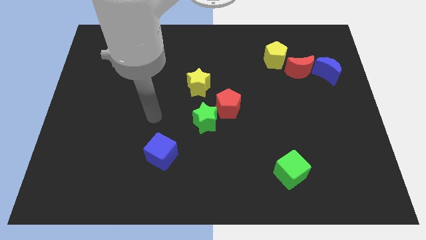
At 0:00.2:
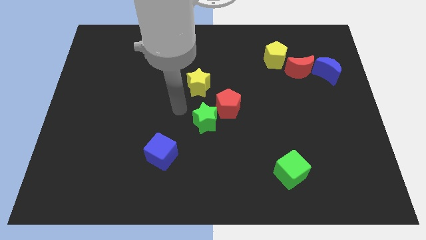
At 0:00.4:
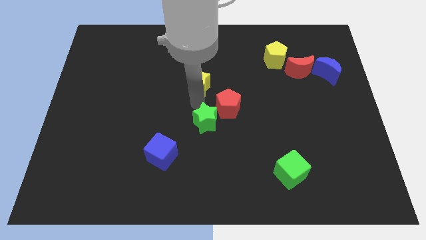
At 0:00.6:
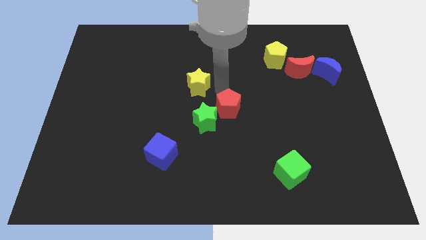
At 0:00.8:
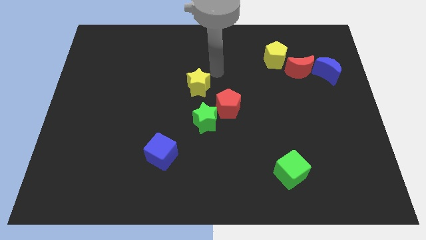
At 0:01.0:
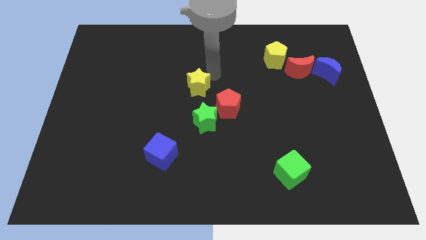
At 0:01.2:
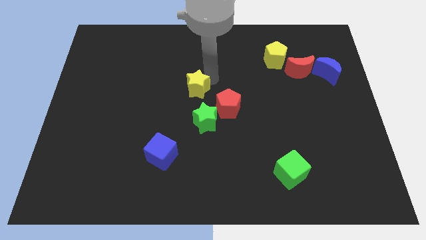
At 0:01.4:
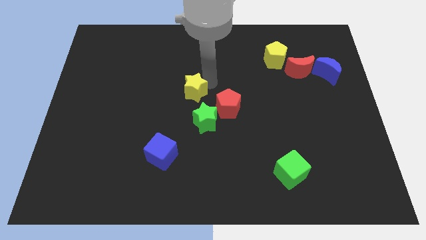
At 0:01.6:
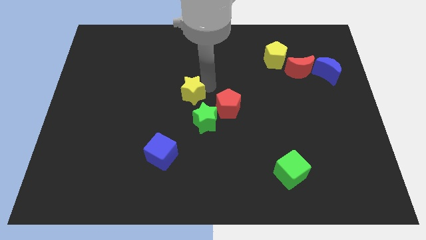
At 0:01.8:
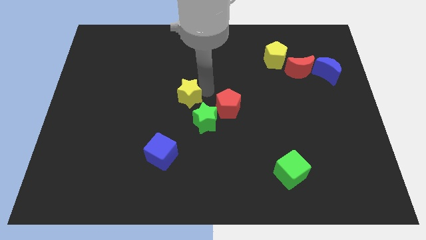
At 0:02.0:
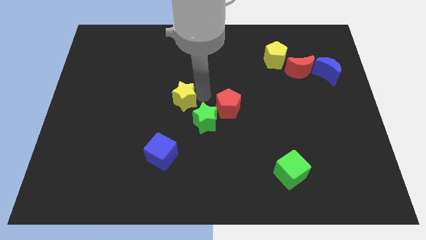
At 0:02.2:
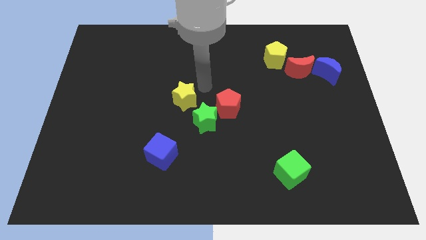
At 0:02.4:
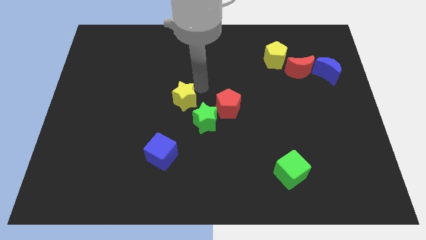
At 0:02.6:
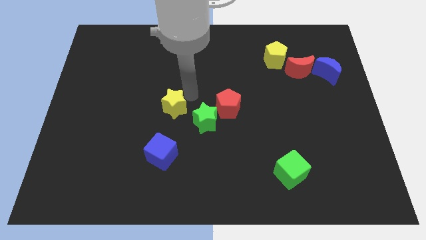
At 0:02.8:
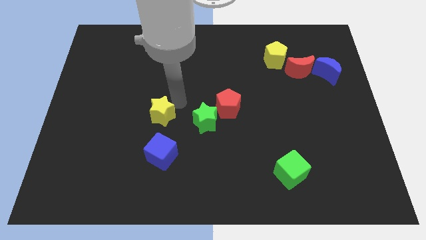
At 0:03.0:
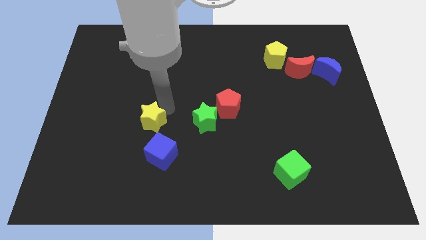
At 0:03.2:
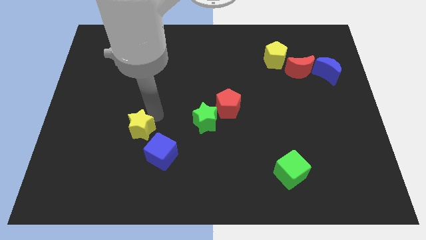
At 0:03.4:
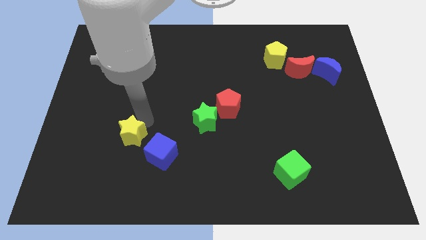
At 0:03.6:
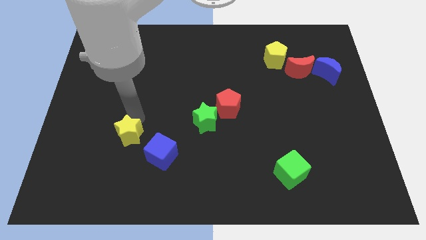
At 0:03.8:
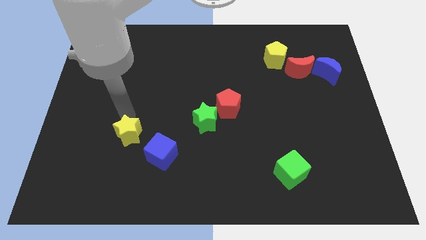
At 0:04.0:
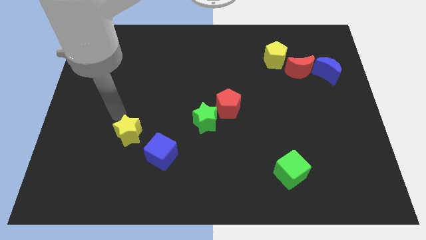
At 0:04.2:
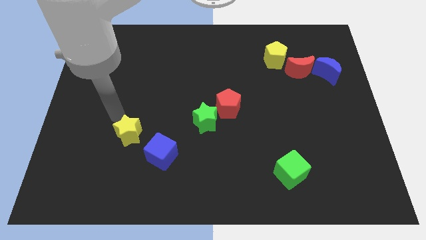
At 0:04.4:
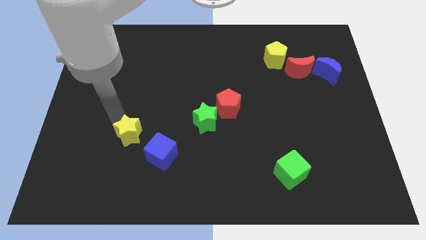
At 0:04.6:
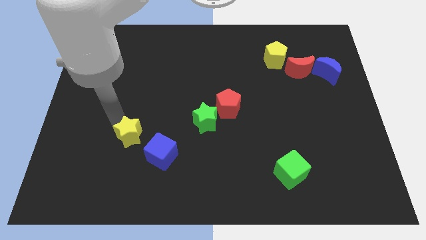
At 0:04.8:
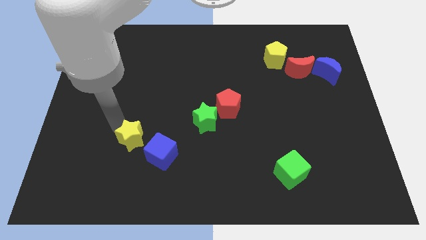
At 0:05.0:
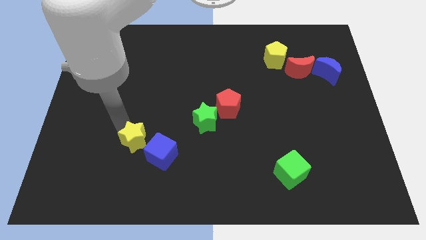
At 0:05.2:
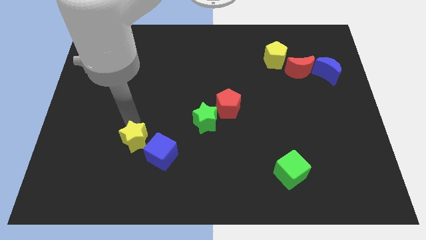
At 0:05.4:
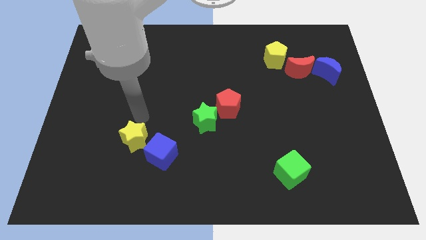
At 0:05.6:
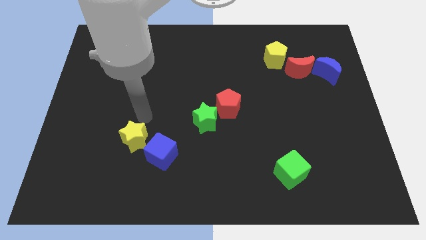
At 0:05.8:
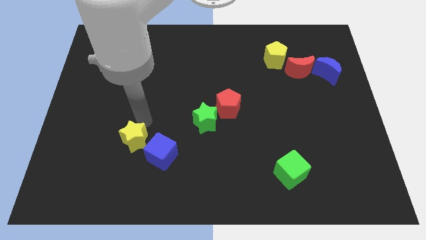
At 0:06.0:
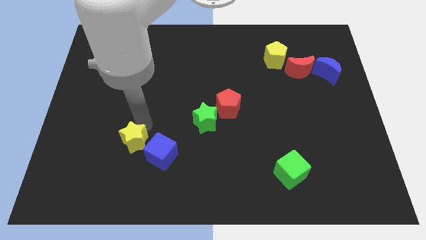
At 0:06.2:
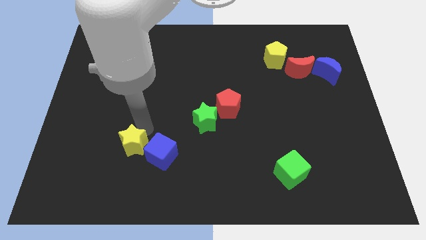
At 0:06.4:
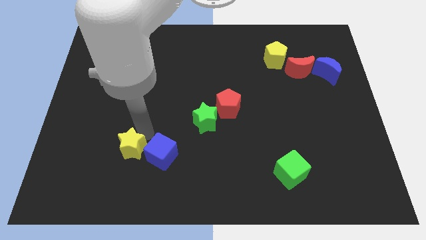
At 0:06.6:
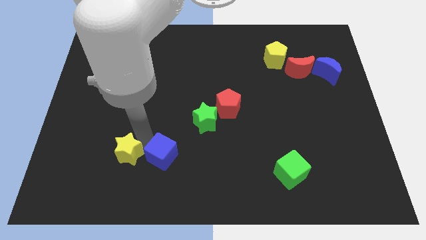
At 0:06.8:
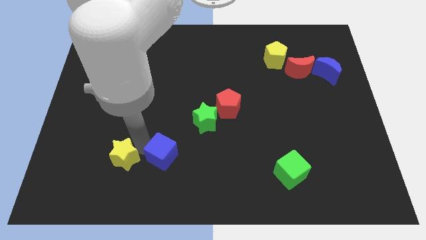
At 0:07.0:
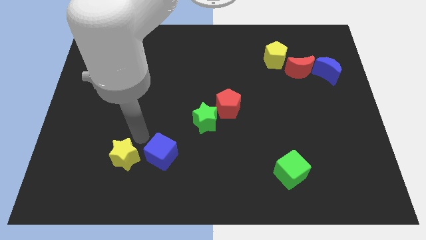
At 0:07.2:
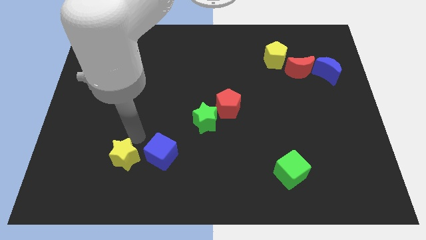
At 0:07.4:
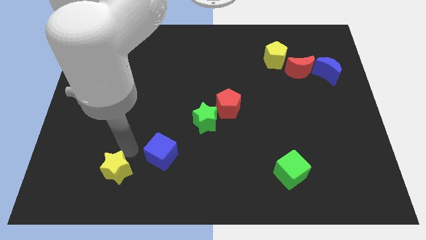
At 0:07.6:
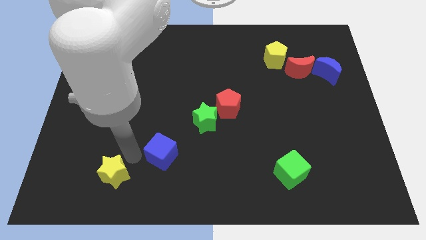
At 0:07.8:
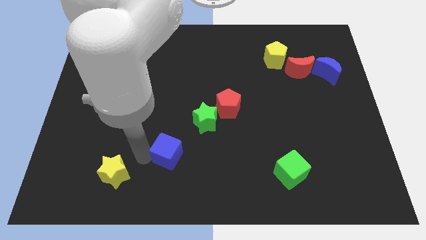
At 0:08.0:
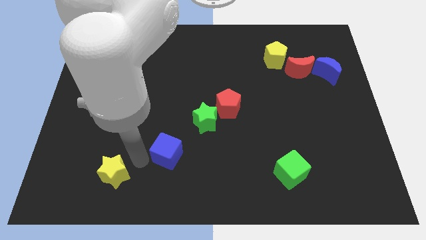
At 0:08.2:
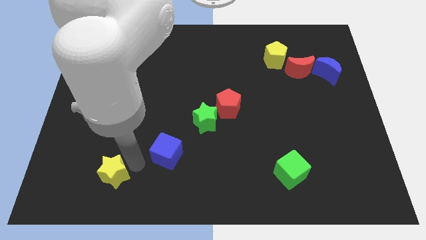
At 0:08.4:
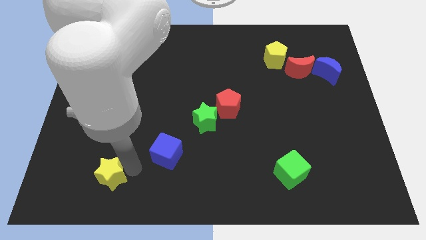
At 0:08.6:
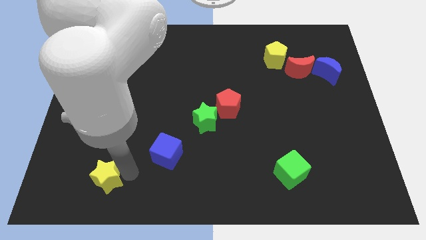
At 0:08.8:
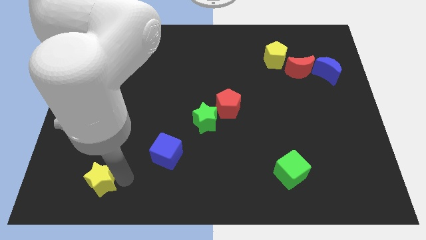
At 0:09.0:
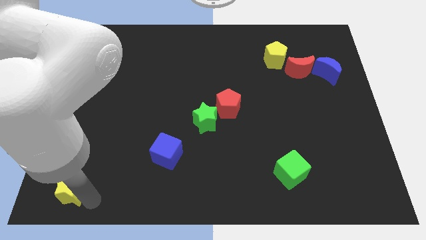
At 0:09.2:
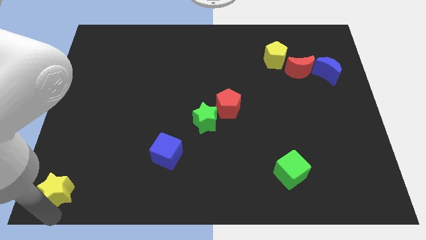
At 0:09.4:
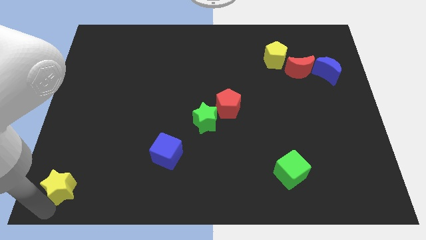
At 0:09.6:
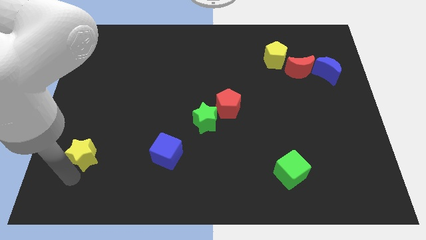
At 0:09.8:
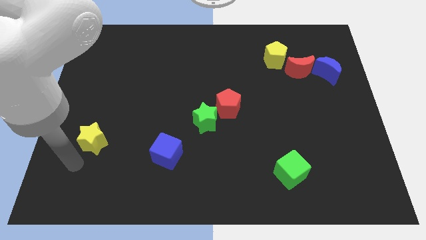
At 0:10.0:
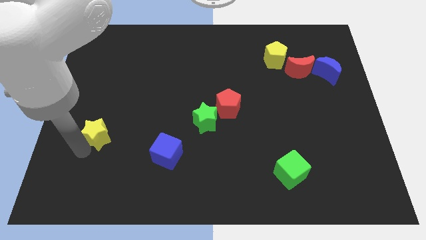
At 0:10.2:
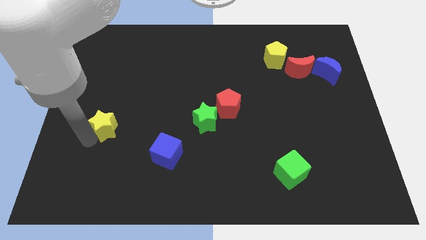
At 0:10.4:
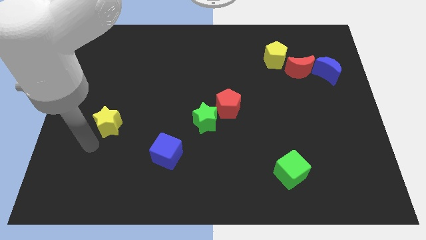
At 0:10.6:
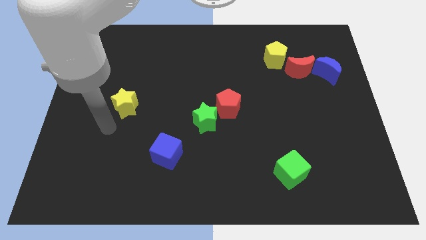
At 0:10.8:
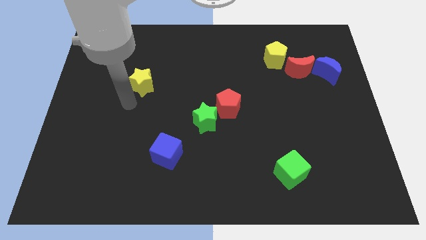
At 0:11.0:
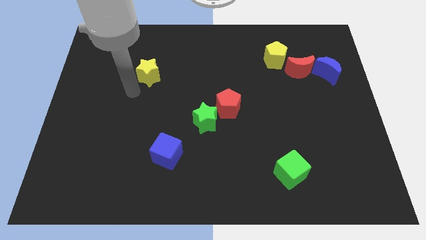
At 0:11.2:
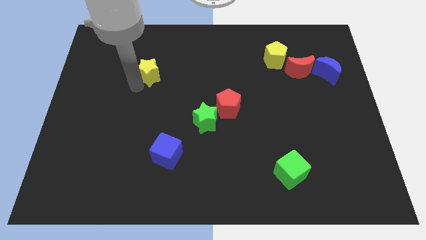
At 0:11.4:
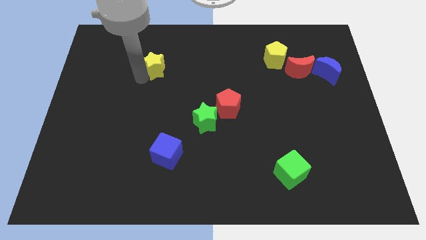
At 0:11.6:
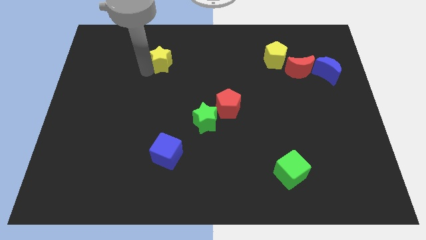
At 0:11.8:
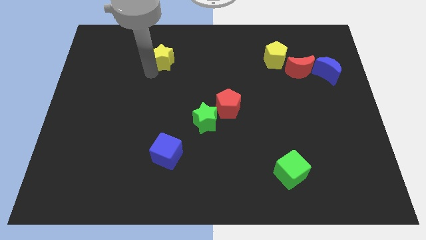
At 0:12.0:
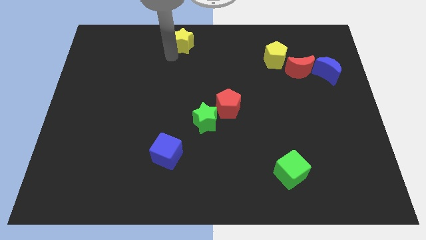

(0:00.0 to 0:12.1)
push the yellow star to the towards your base

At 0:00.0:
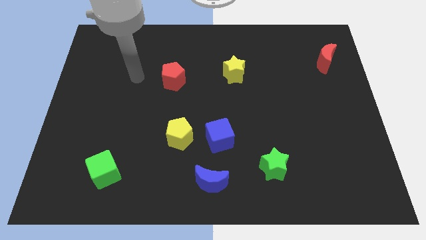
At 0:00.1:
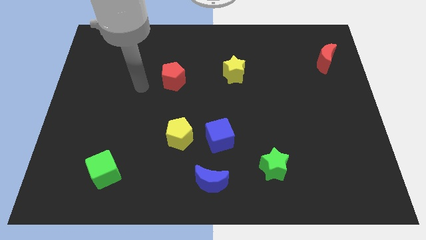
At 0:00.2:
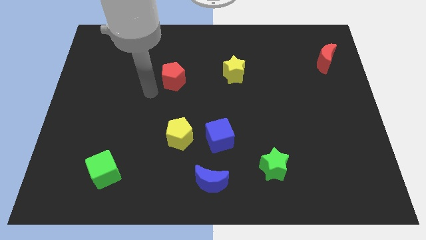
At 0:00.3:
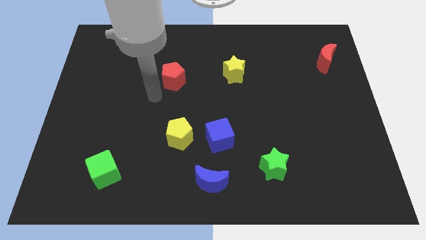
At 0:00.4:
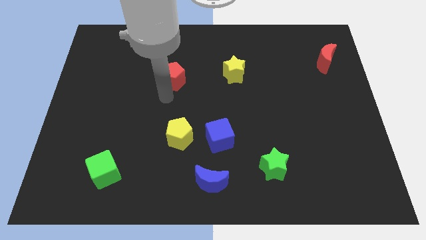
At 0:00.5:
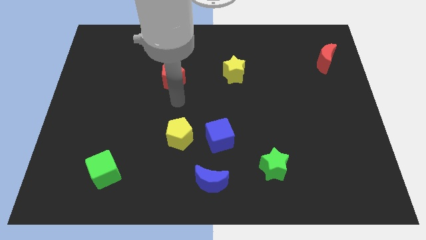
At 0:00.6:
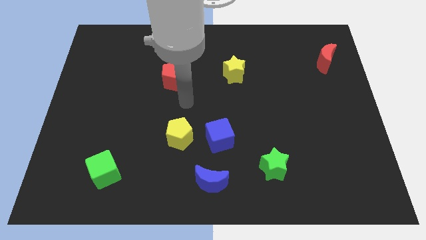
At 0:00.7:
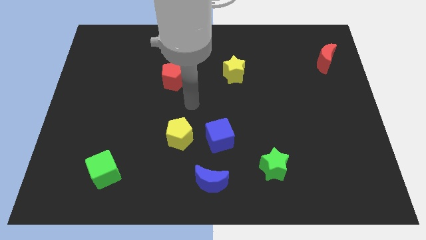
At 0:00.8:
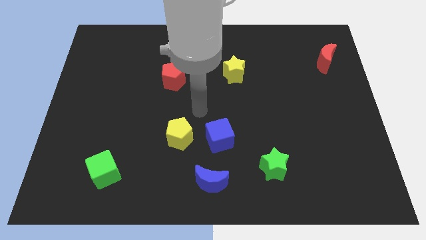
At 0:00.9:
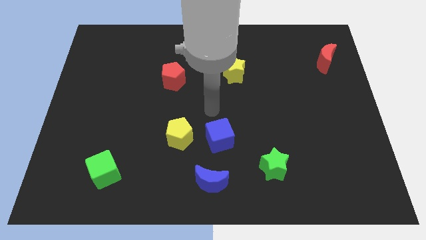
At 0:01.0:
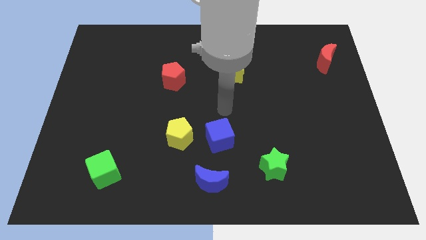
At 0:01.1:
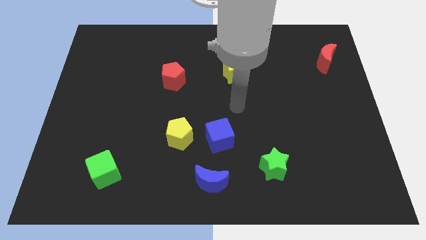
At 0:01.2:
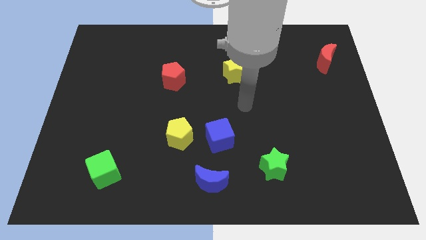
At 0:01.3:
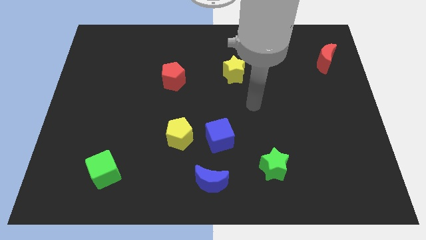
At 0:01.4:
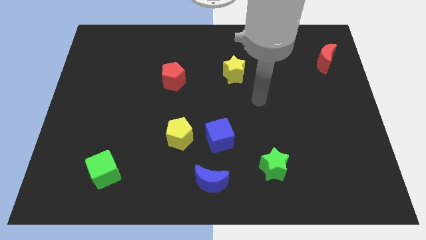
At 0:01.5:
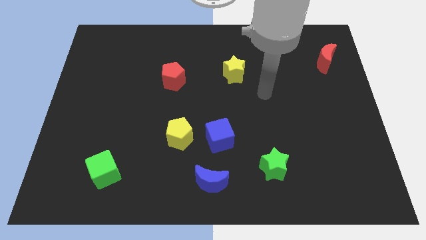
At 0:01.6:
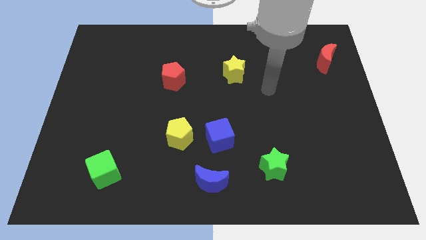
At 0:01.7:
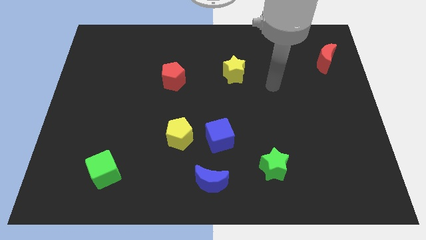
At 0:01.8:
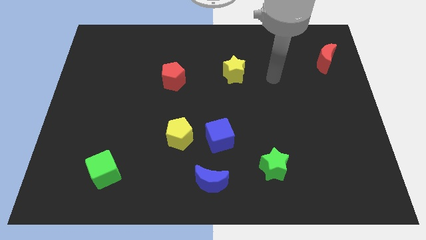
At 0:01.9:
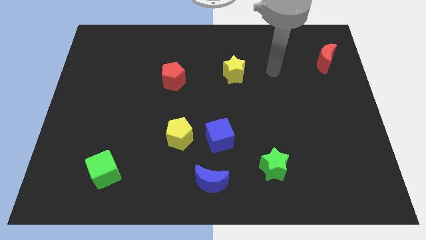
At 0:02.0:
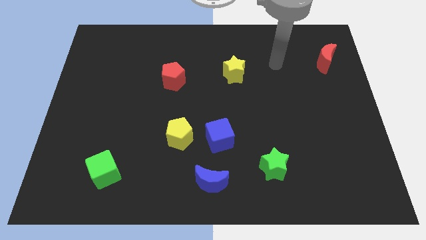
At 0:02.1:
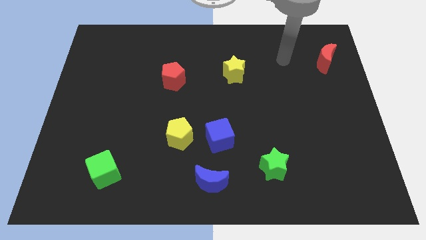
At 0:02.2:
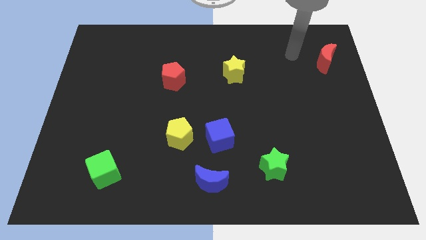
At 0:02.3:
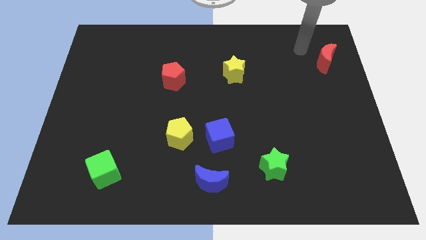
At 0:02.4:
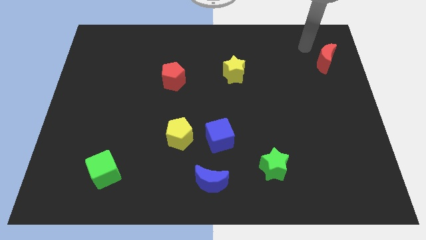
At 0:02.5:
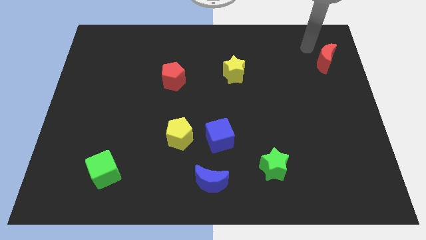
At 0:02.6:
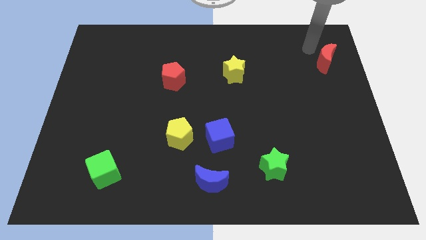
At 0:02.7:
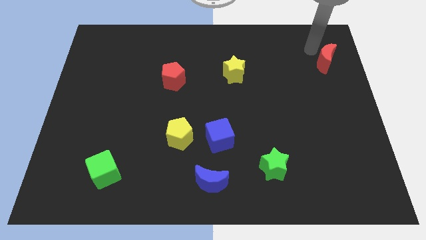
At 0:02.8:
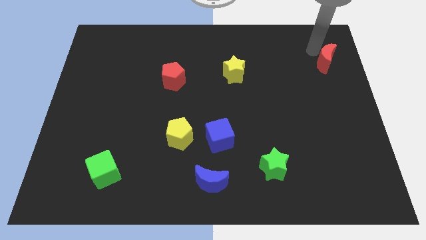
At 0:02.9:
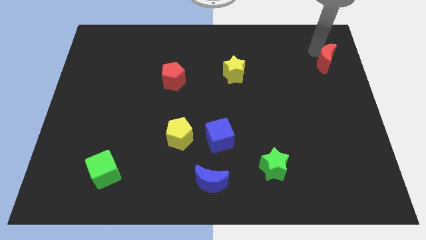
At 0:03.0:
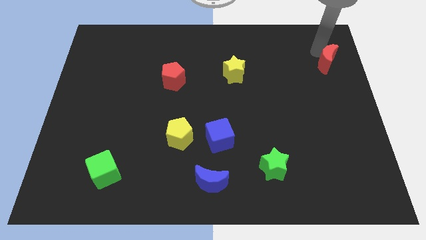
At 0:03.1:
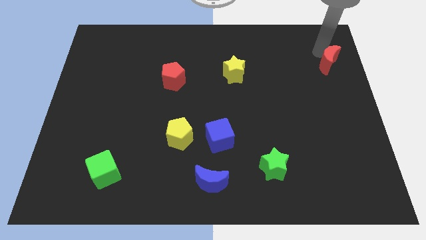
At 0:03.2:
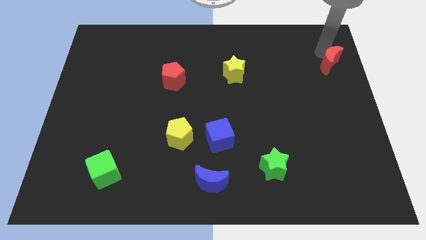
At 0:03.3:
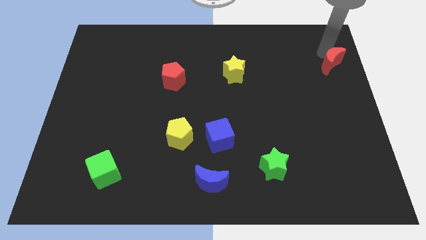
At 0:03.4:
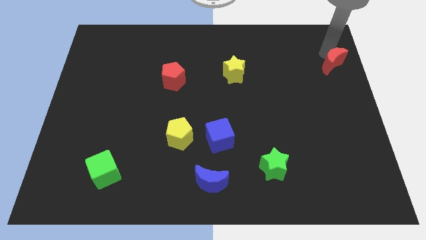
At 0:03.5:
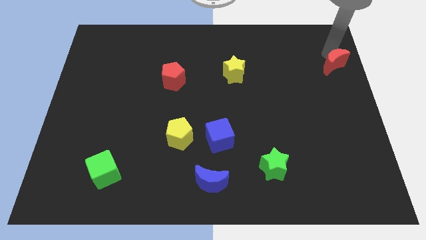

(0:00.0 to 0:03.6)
slide the red moon to the right side
